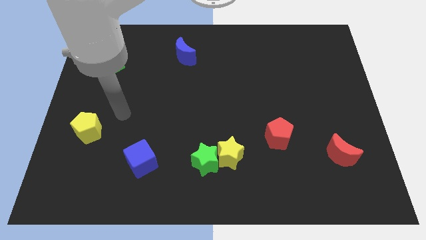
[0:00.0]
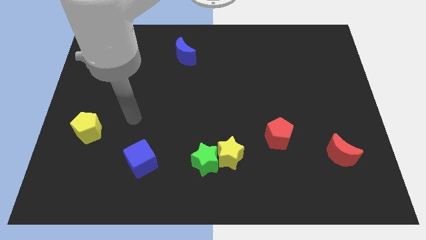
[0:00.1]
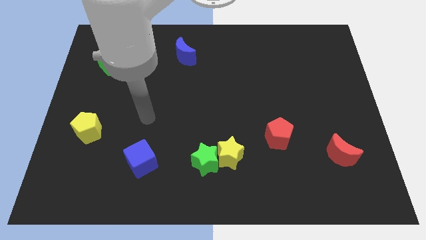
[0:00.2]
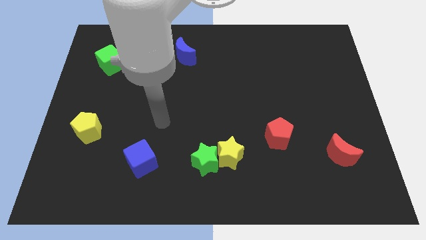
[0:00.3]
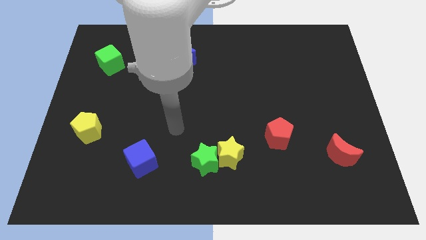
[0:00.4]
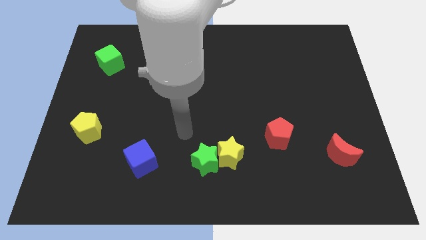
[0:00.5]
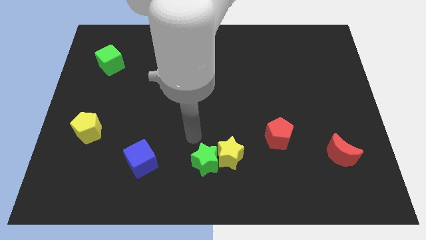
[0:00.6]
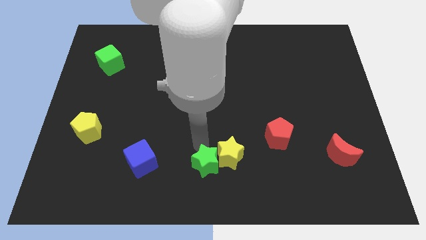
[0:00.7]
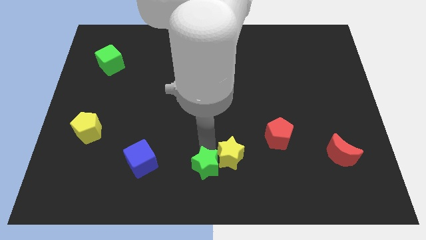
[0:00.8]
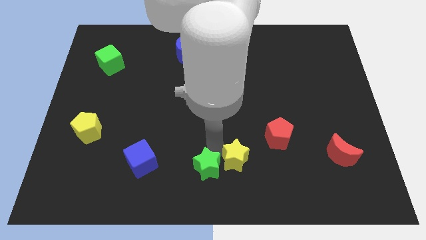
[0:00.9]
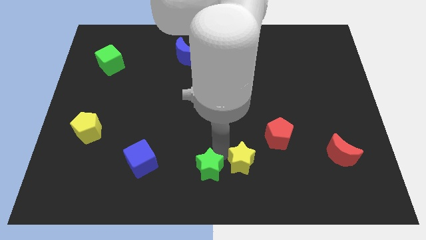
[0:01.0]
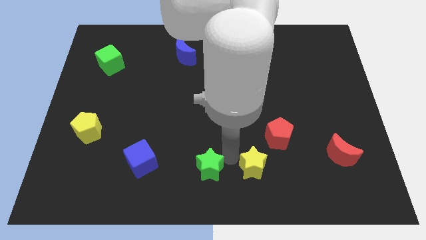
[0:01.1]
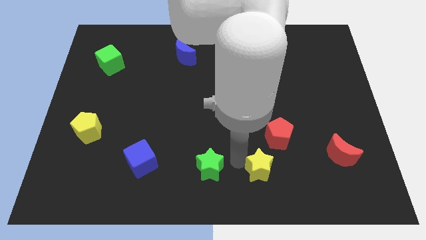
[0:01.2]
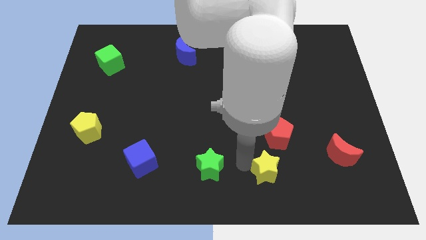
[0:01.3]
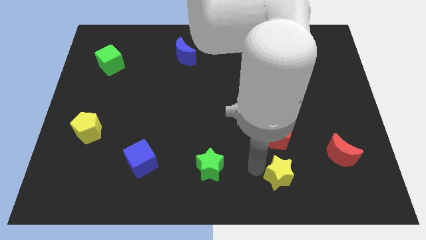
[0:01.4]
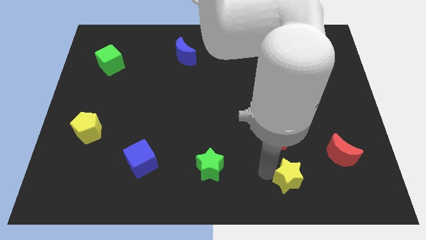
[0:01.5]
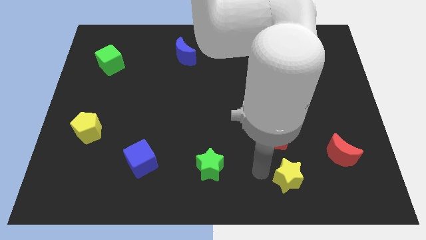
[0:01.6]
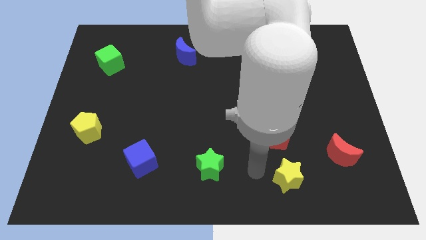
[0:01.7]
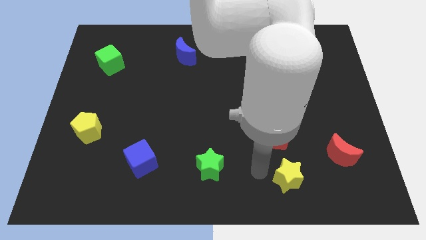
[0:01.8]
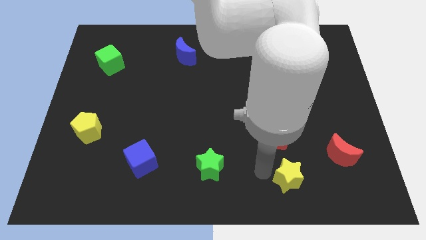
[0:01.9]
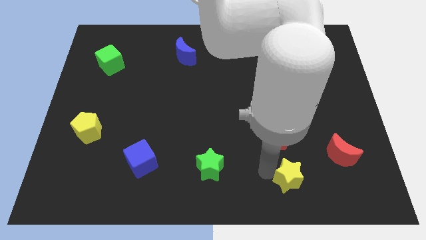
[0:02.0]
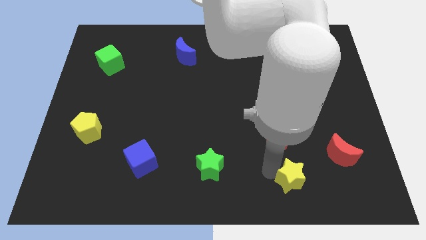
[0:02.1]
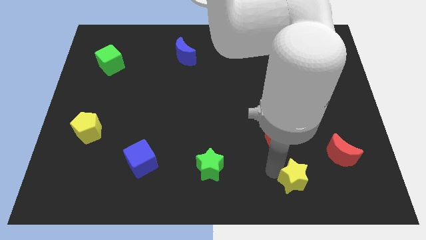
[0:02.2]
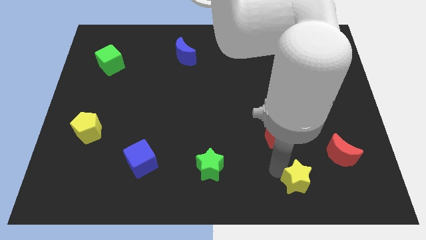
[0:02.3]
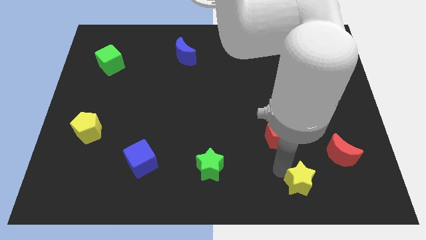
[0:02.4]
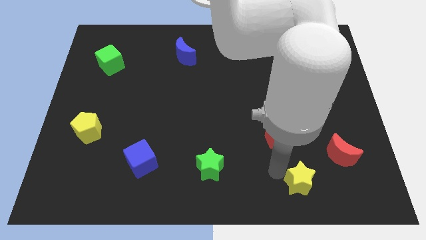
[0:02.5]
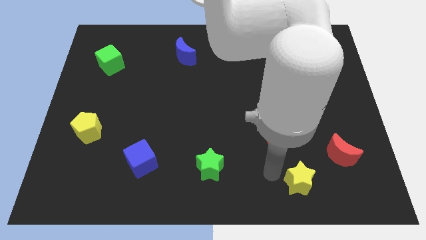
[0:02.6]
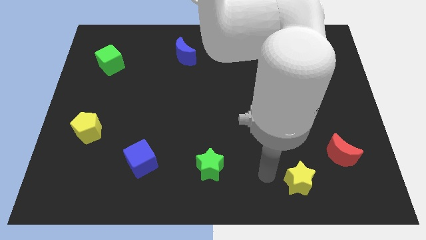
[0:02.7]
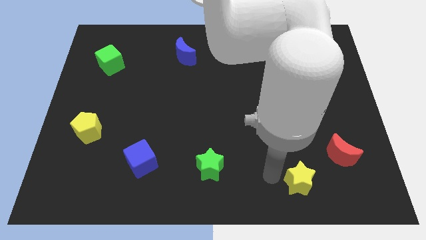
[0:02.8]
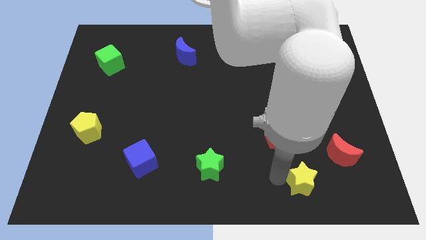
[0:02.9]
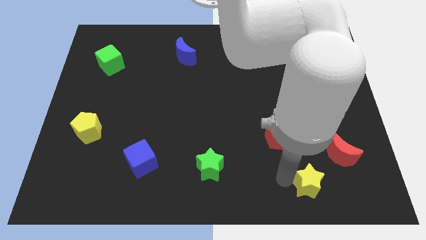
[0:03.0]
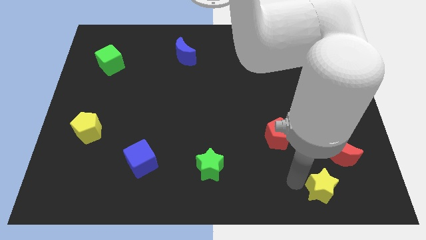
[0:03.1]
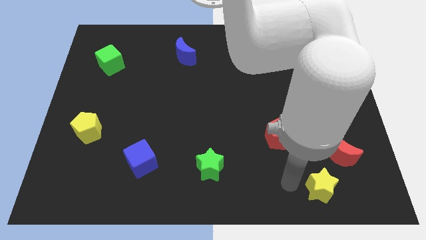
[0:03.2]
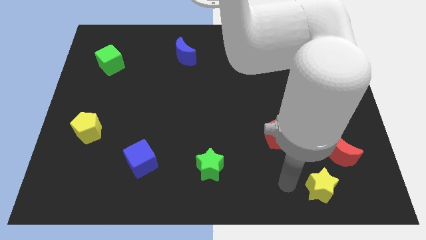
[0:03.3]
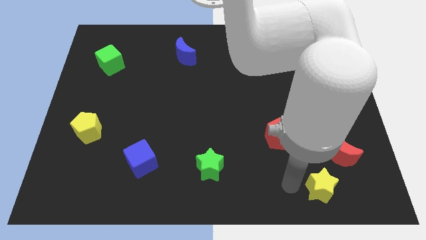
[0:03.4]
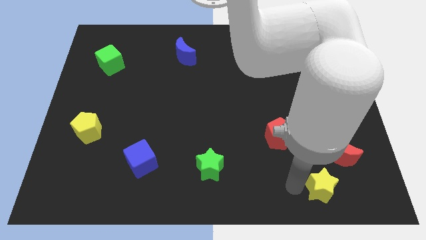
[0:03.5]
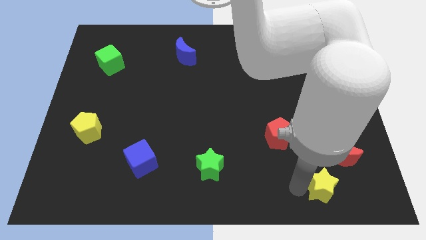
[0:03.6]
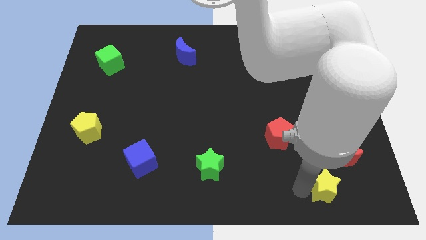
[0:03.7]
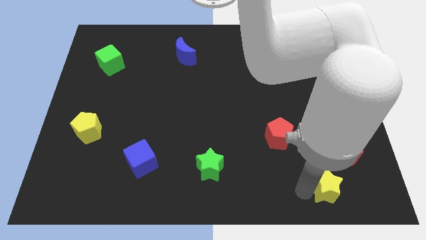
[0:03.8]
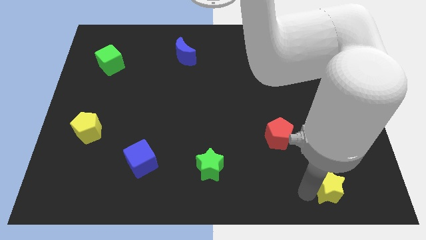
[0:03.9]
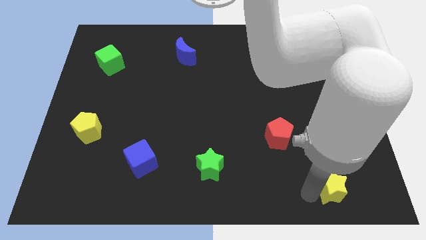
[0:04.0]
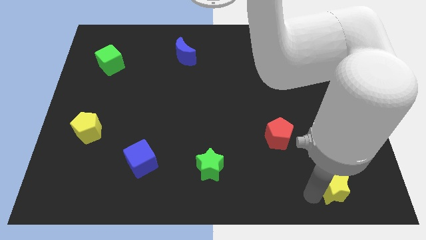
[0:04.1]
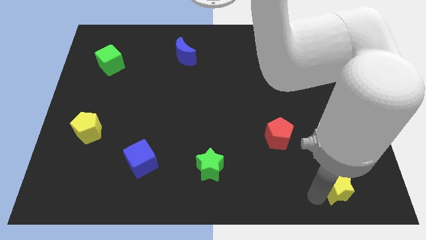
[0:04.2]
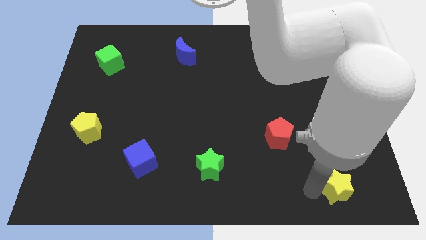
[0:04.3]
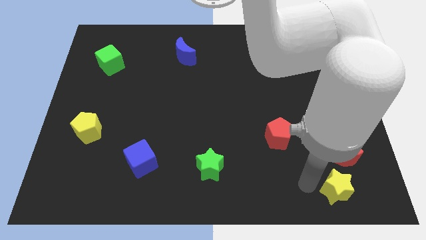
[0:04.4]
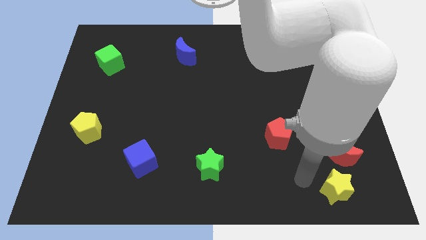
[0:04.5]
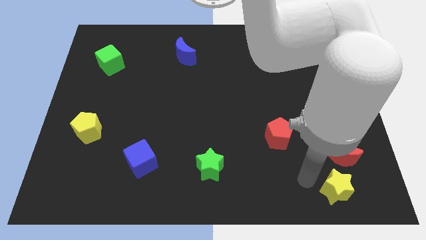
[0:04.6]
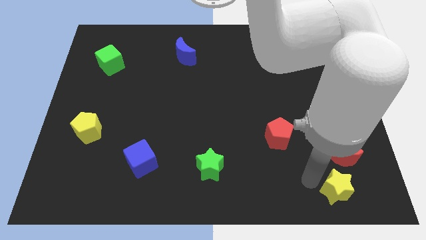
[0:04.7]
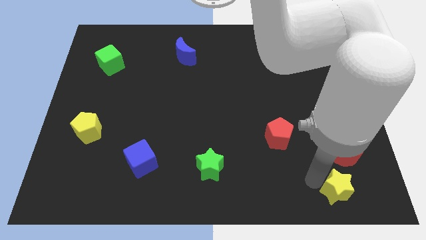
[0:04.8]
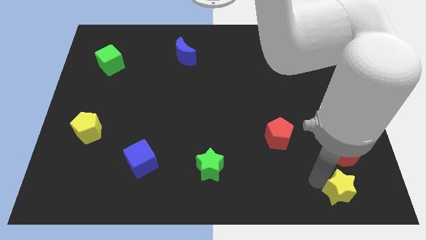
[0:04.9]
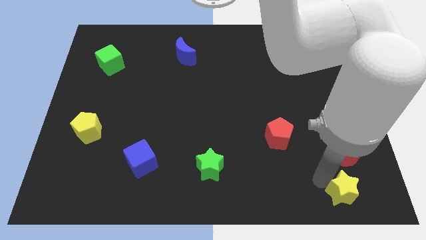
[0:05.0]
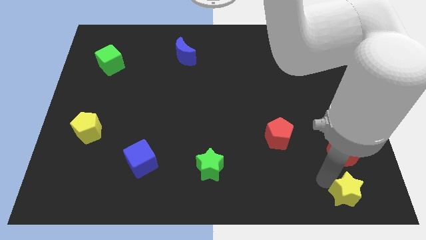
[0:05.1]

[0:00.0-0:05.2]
put the yellow star to the bottom right of the board

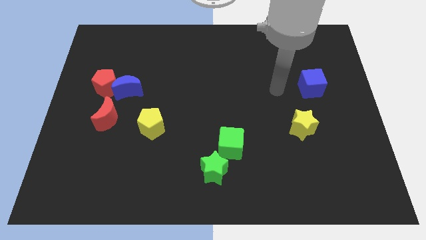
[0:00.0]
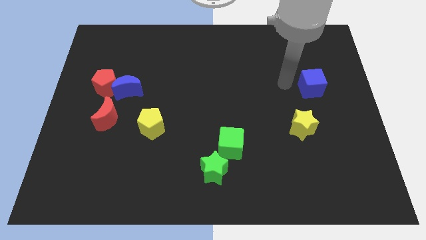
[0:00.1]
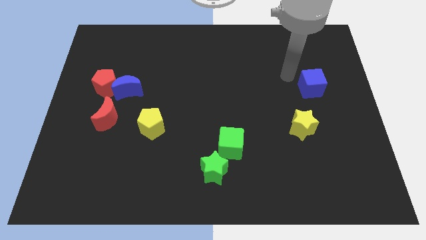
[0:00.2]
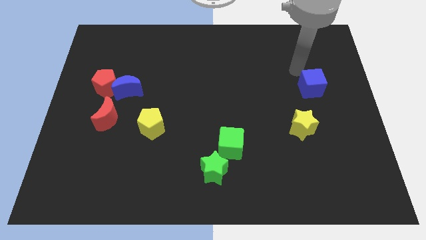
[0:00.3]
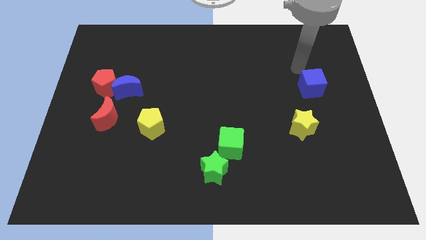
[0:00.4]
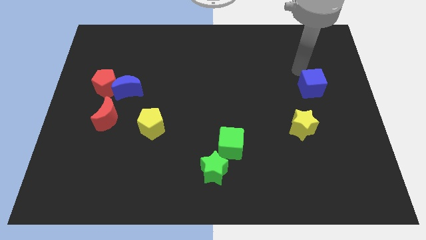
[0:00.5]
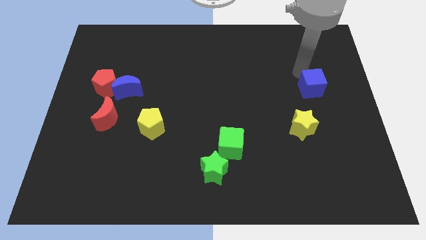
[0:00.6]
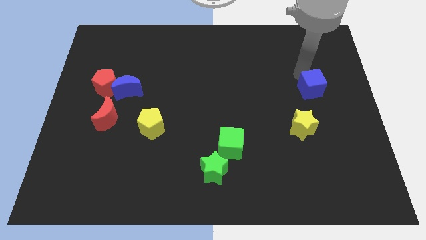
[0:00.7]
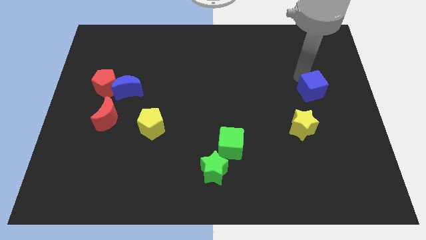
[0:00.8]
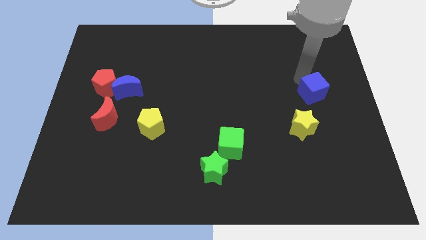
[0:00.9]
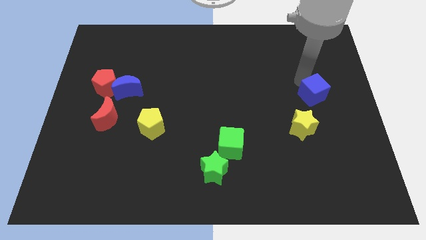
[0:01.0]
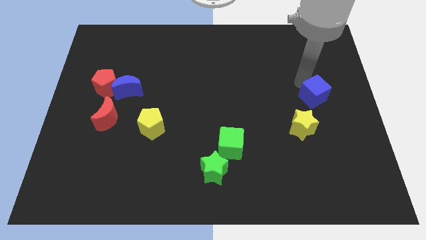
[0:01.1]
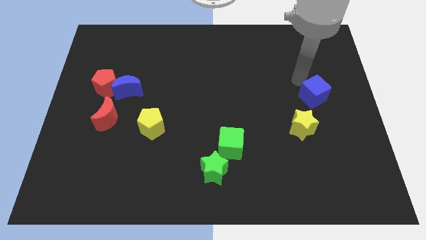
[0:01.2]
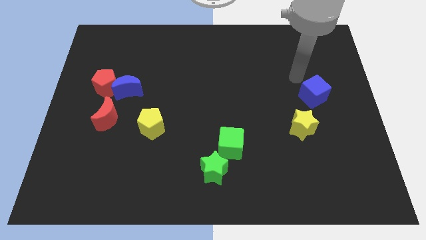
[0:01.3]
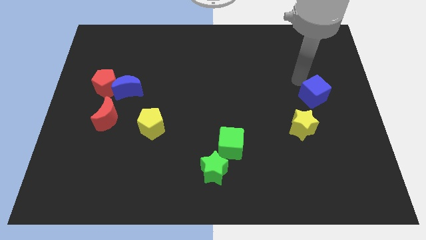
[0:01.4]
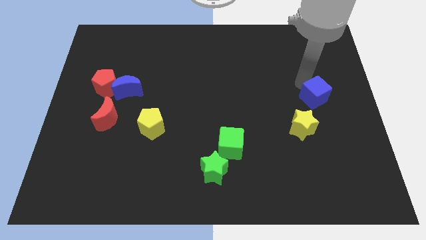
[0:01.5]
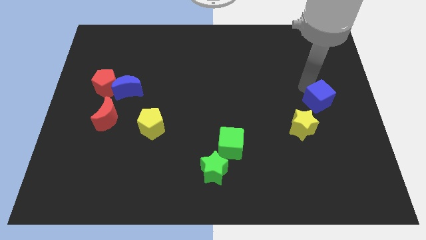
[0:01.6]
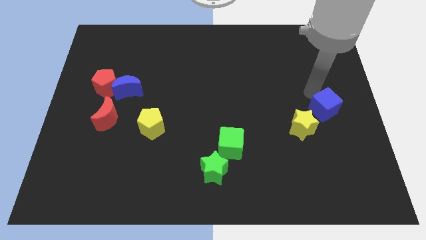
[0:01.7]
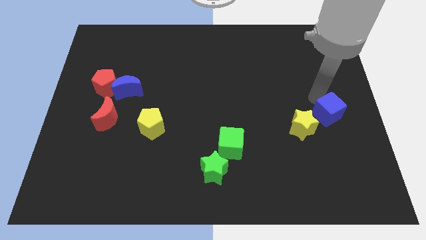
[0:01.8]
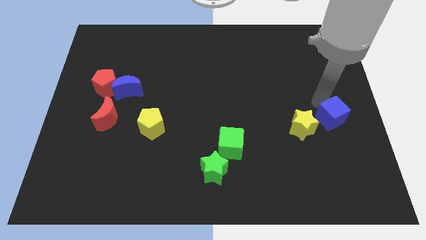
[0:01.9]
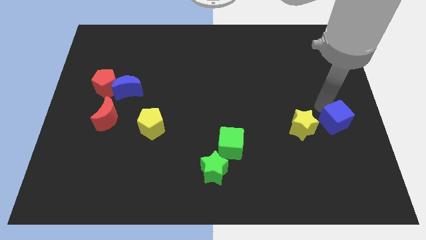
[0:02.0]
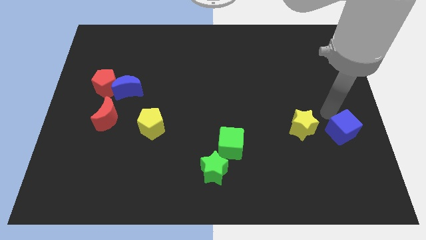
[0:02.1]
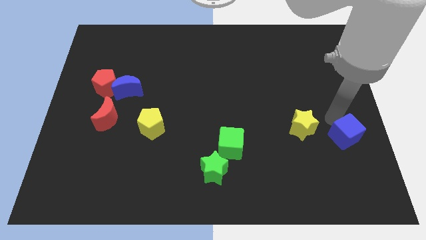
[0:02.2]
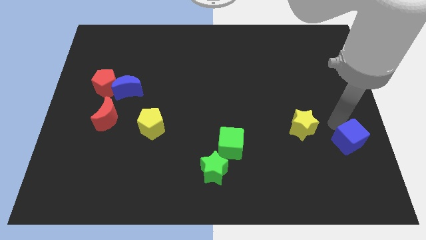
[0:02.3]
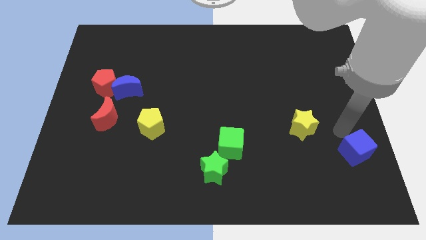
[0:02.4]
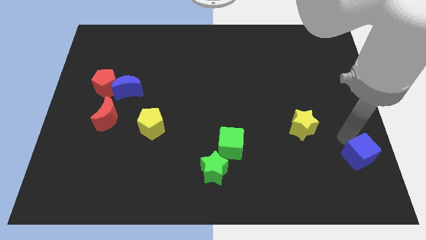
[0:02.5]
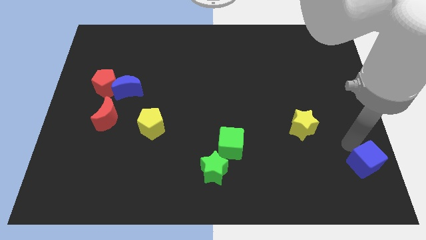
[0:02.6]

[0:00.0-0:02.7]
push the blue cube to the lower right corner
